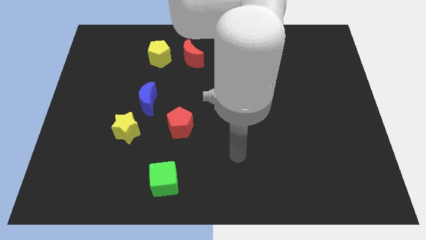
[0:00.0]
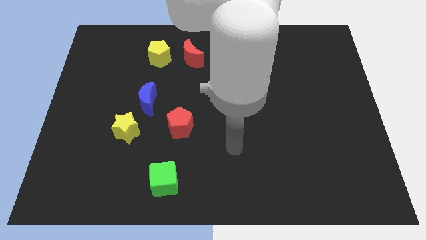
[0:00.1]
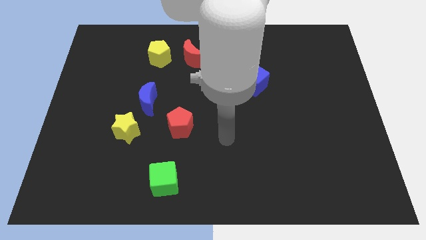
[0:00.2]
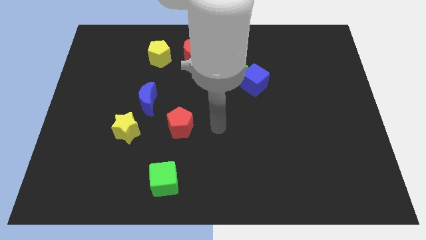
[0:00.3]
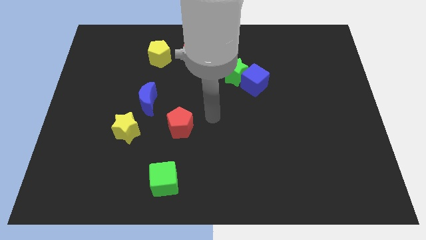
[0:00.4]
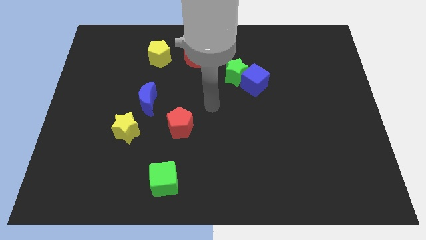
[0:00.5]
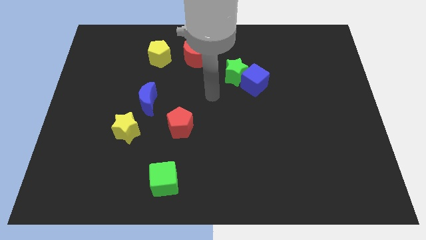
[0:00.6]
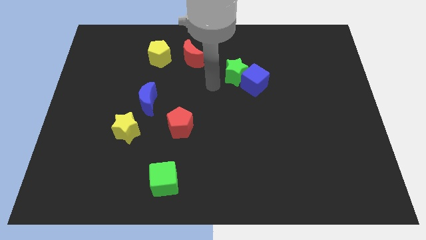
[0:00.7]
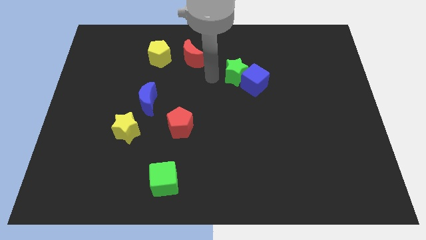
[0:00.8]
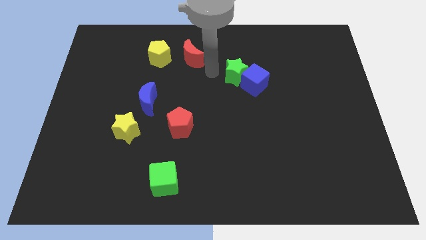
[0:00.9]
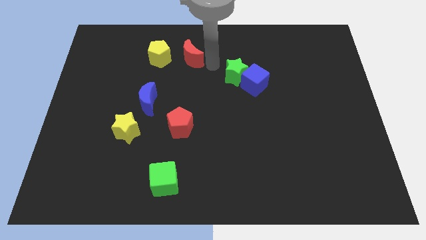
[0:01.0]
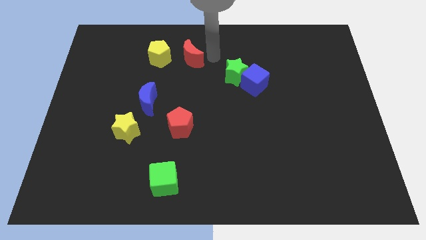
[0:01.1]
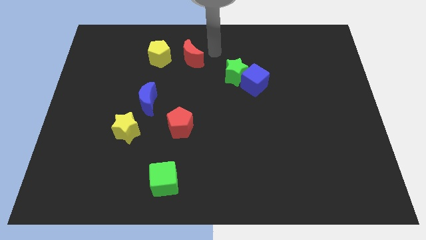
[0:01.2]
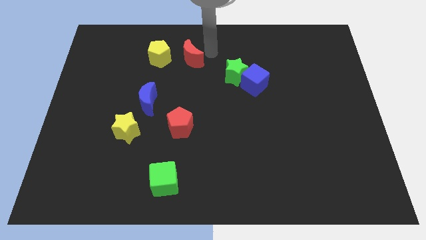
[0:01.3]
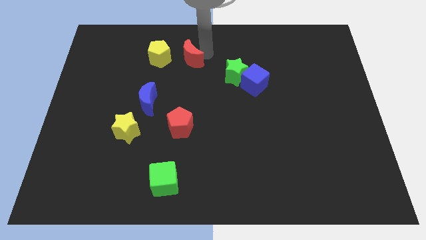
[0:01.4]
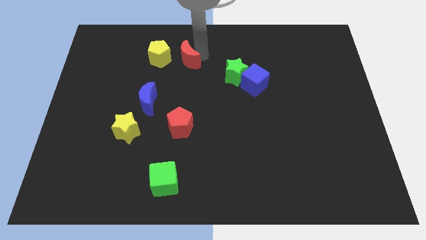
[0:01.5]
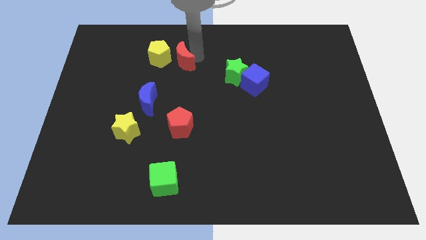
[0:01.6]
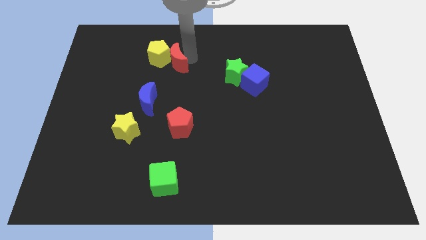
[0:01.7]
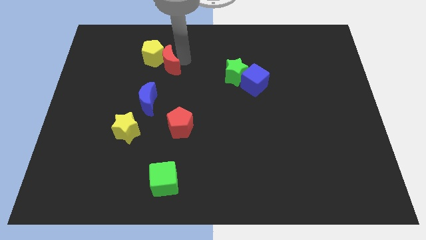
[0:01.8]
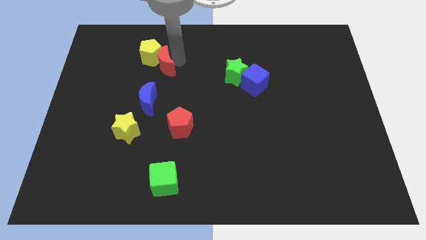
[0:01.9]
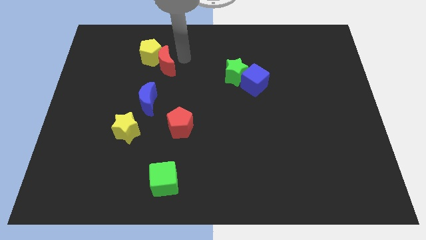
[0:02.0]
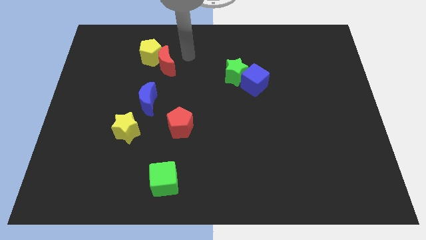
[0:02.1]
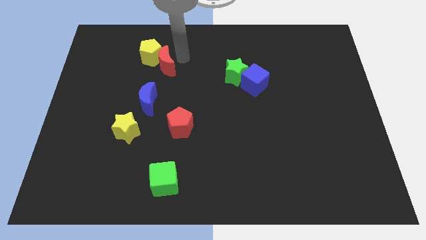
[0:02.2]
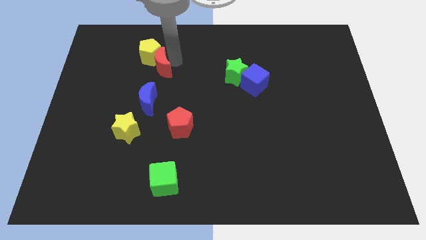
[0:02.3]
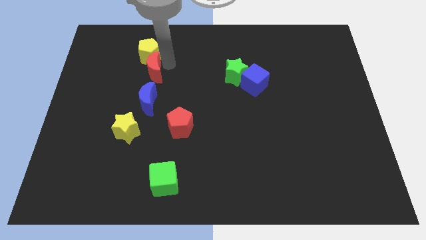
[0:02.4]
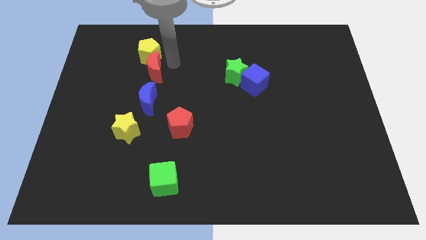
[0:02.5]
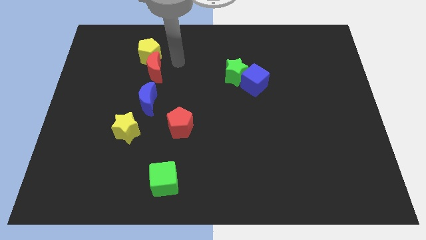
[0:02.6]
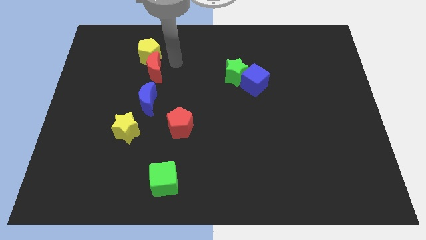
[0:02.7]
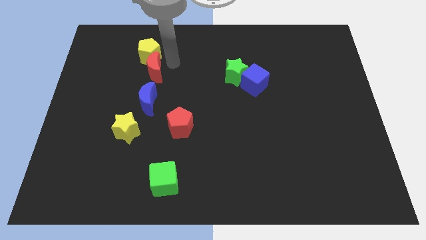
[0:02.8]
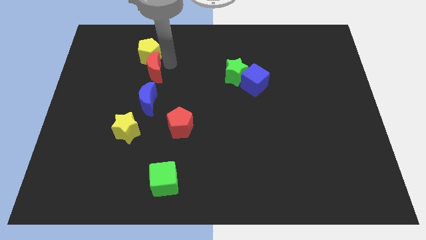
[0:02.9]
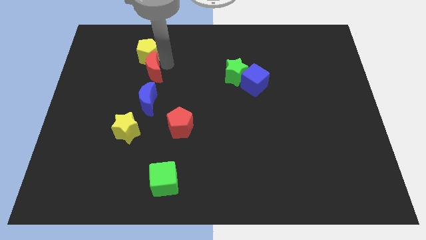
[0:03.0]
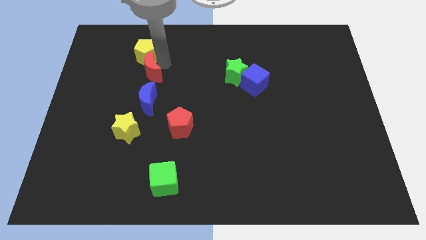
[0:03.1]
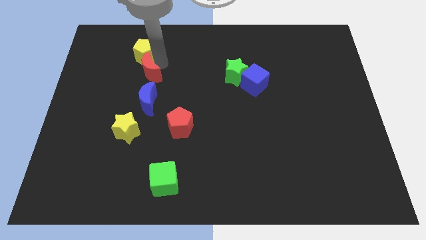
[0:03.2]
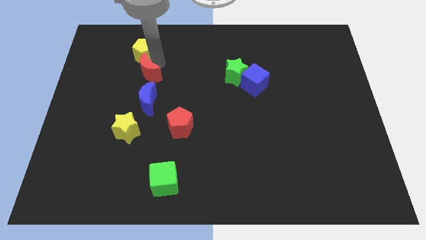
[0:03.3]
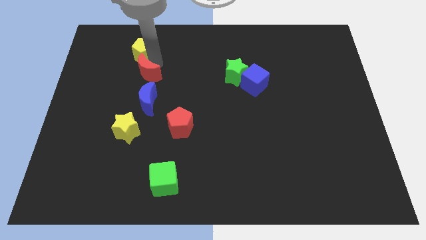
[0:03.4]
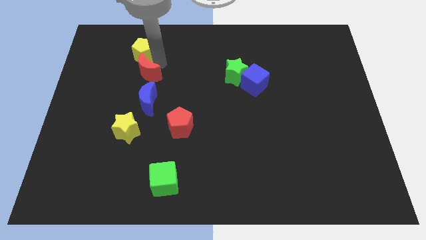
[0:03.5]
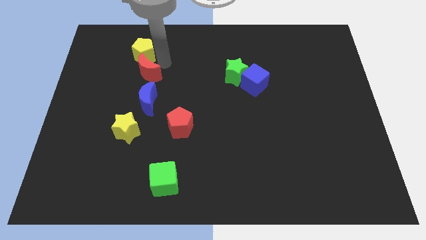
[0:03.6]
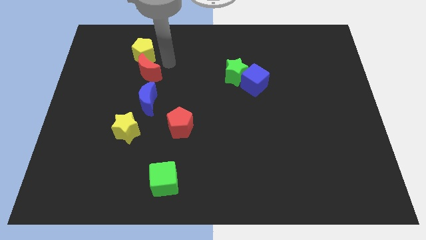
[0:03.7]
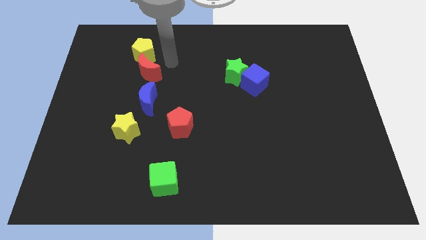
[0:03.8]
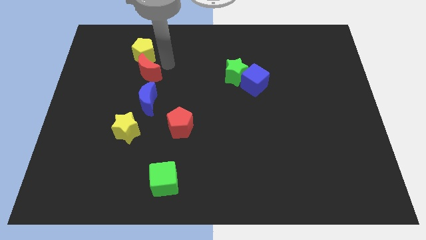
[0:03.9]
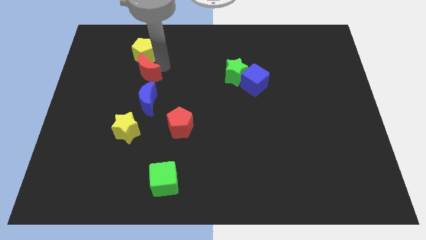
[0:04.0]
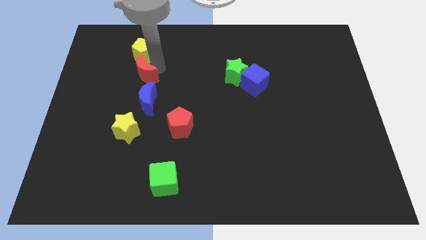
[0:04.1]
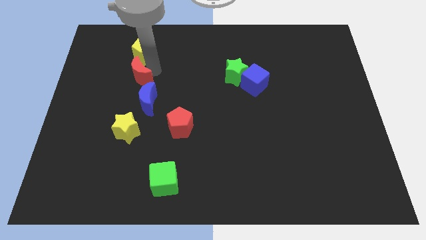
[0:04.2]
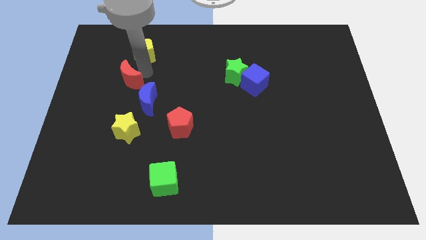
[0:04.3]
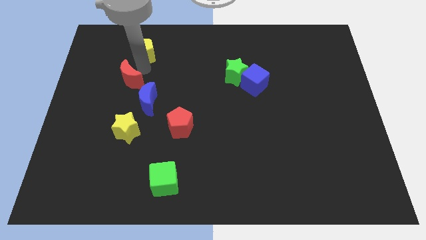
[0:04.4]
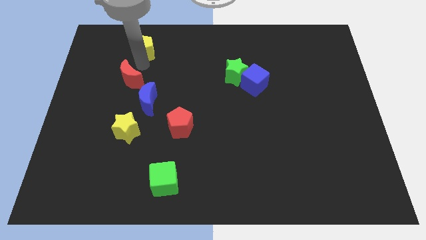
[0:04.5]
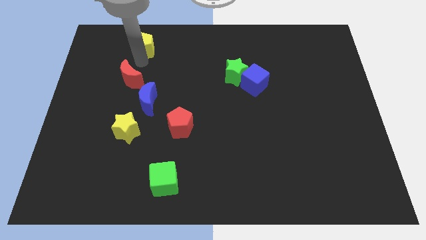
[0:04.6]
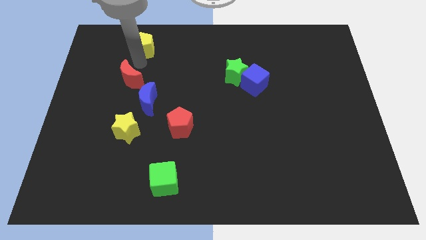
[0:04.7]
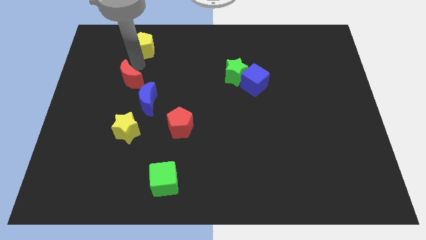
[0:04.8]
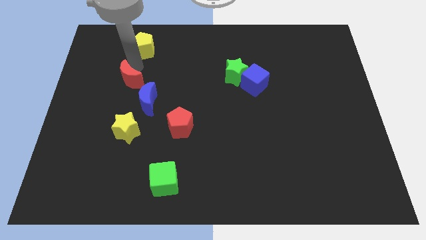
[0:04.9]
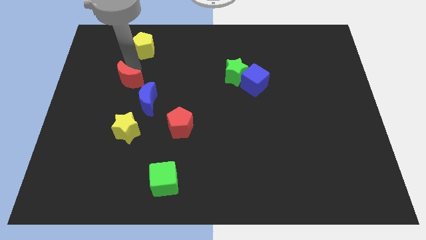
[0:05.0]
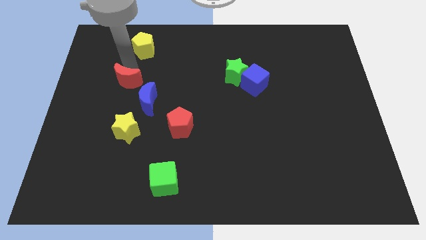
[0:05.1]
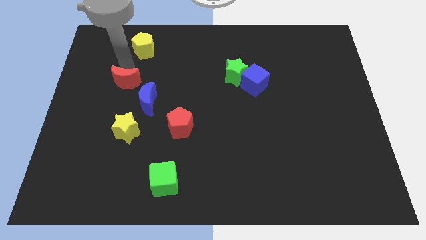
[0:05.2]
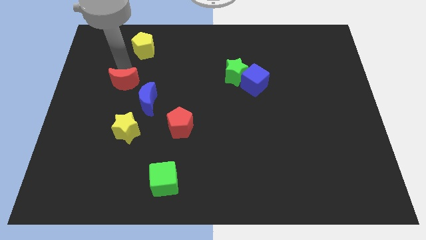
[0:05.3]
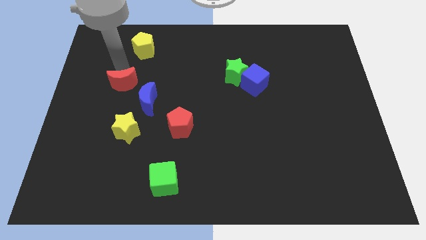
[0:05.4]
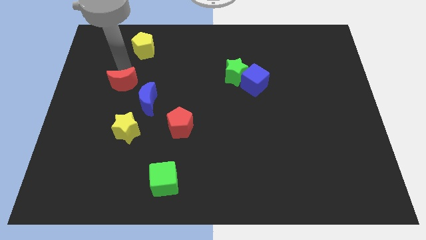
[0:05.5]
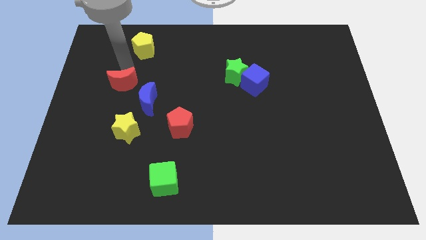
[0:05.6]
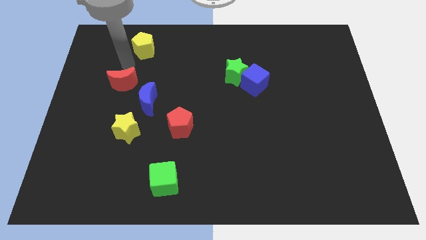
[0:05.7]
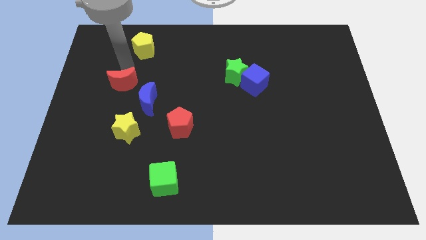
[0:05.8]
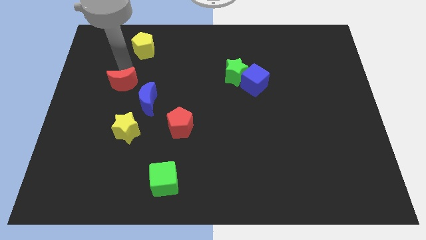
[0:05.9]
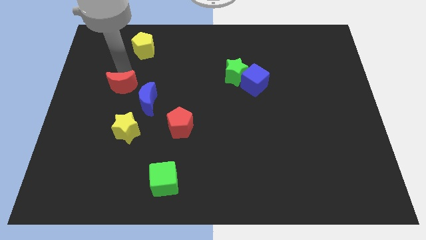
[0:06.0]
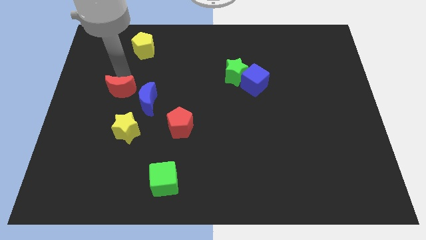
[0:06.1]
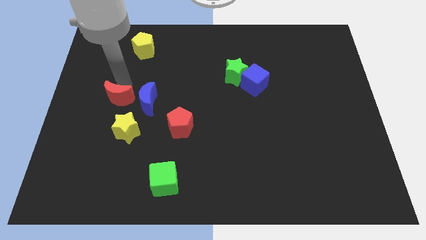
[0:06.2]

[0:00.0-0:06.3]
slide the red moon diagonally downwards and to the left

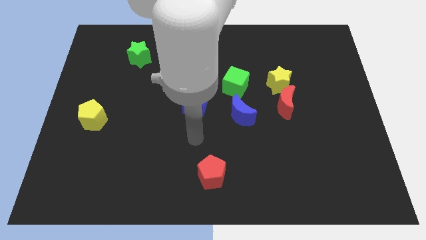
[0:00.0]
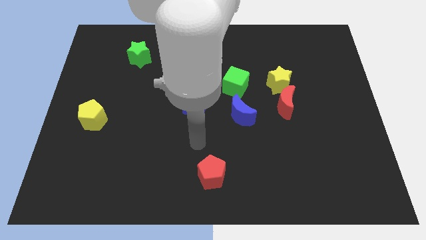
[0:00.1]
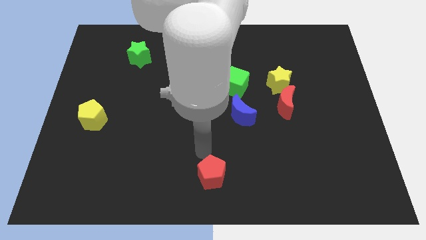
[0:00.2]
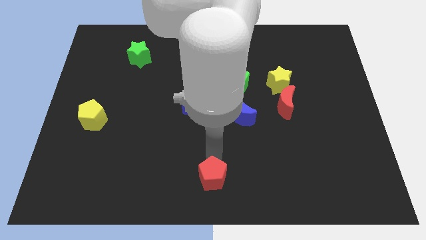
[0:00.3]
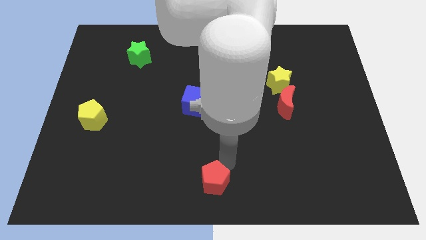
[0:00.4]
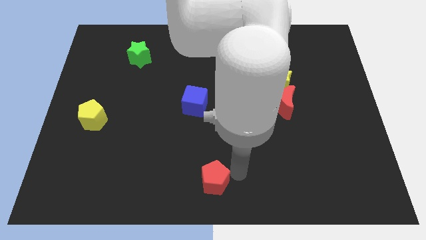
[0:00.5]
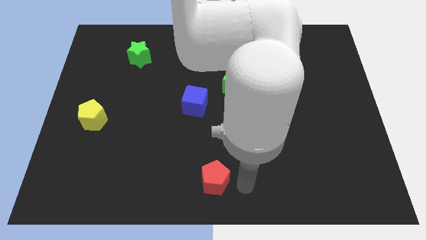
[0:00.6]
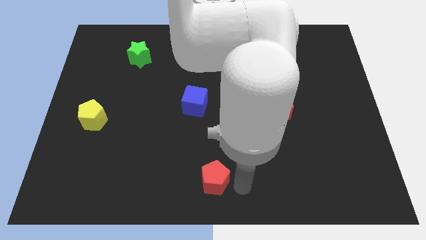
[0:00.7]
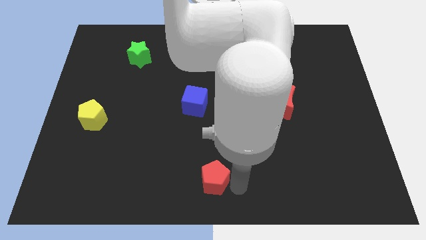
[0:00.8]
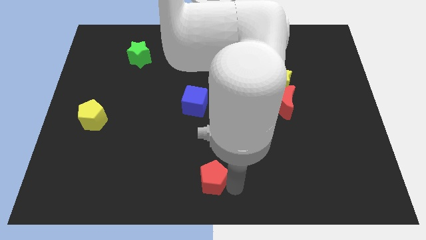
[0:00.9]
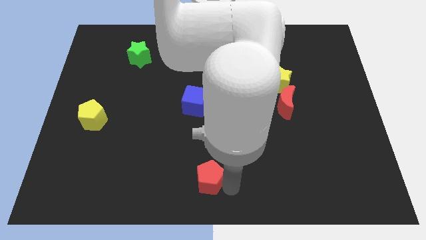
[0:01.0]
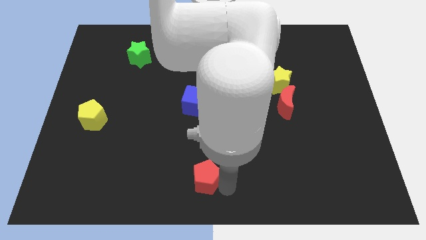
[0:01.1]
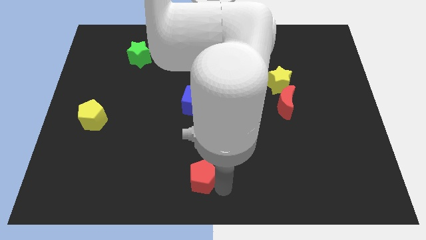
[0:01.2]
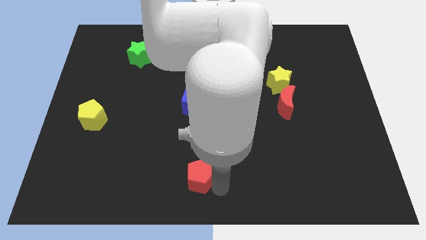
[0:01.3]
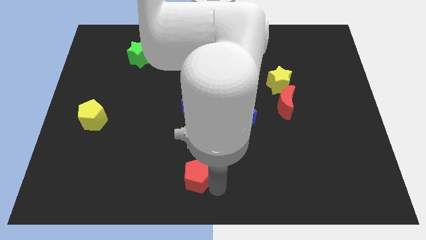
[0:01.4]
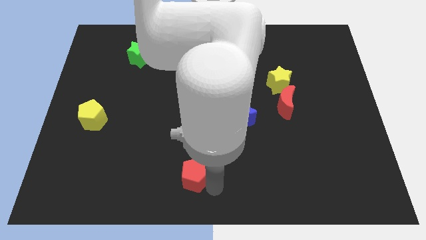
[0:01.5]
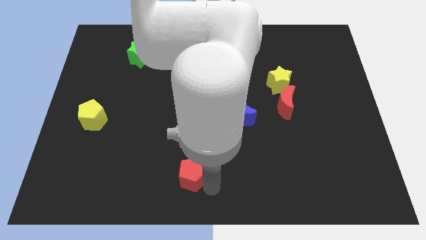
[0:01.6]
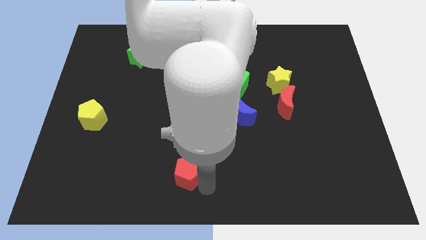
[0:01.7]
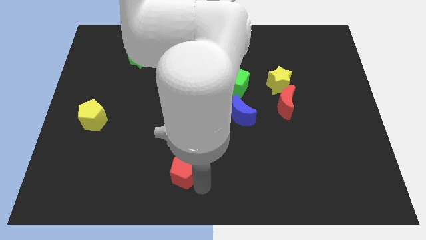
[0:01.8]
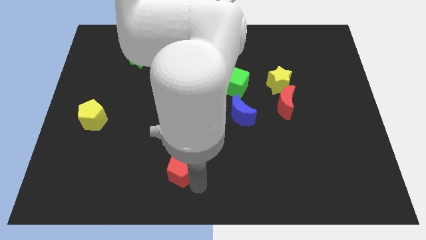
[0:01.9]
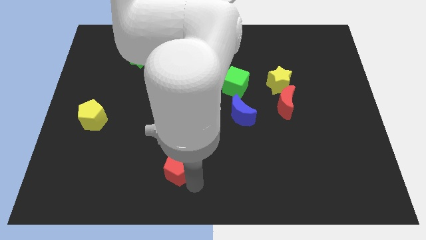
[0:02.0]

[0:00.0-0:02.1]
push the red pentagon slightly to the left

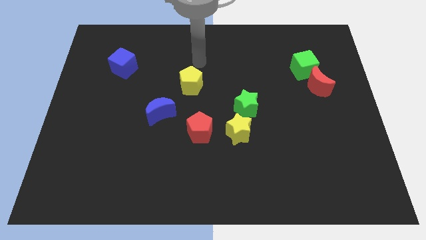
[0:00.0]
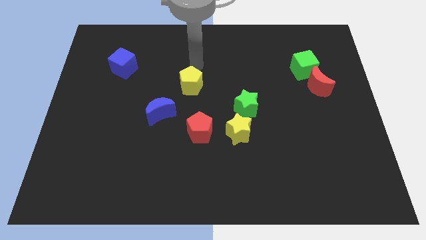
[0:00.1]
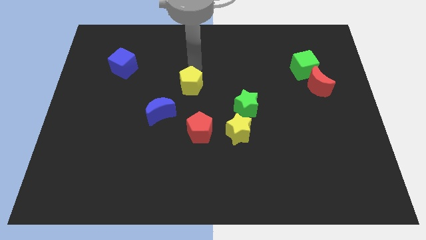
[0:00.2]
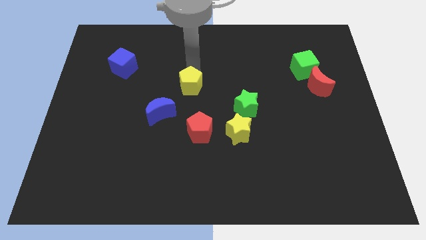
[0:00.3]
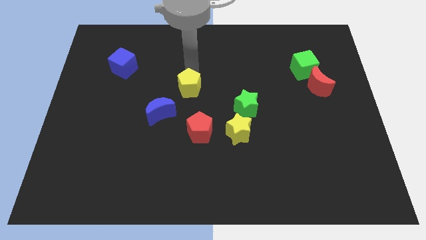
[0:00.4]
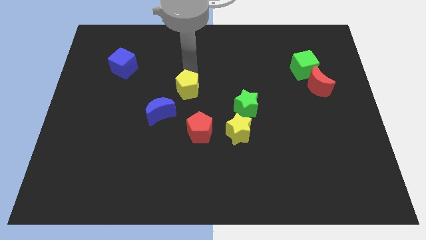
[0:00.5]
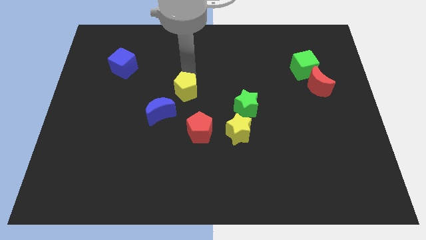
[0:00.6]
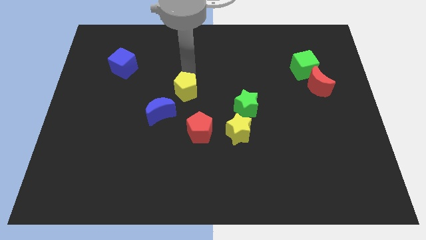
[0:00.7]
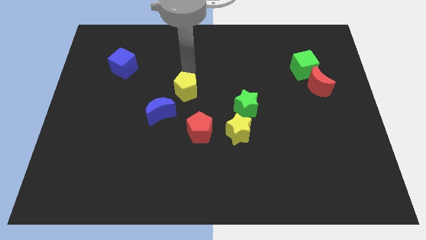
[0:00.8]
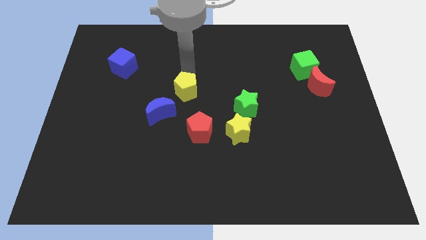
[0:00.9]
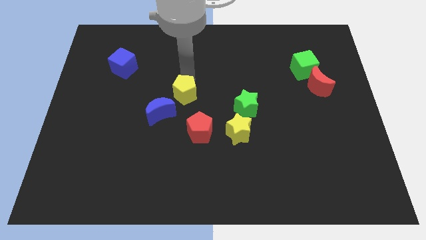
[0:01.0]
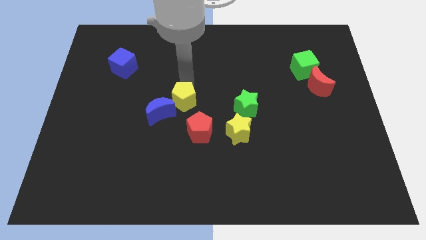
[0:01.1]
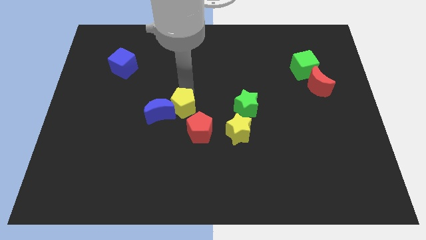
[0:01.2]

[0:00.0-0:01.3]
push the yellow pentagon a little down
